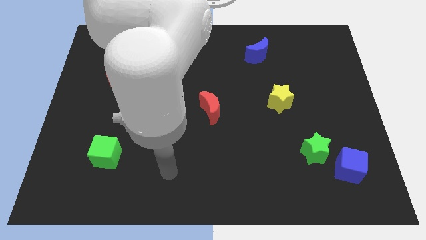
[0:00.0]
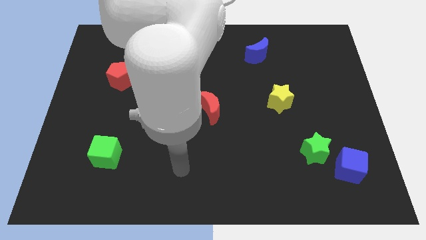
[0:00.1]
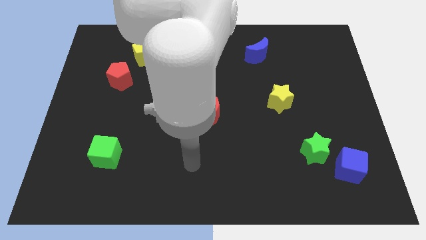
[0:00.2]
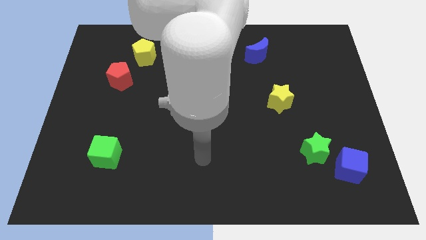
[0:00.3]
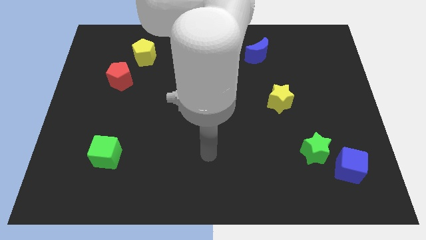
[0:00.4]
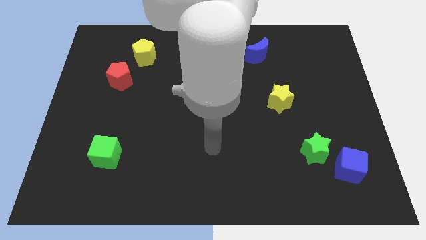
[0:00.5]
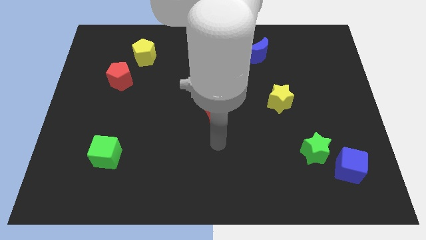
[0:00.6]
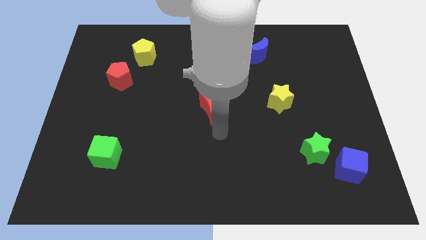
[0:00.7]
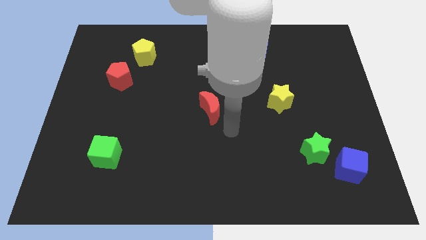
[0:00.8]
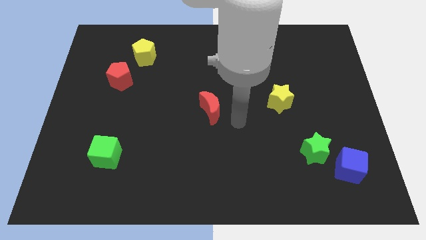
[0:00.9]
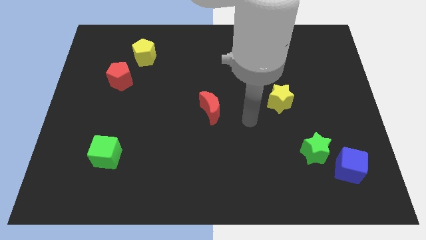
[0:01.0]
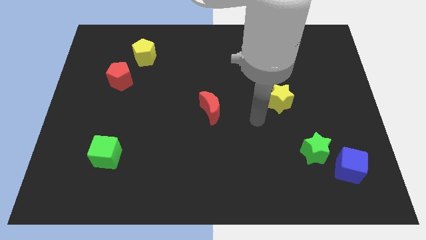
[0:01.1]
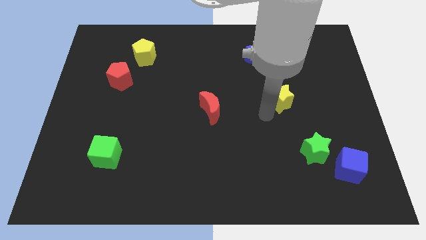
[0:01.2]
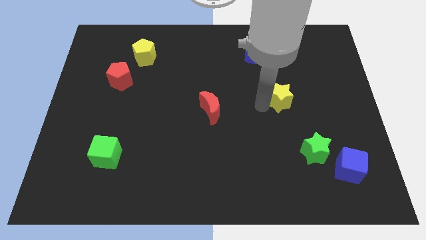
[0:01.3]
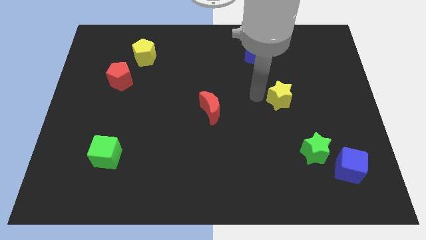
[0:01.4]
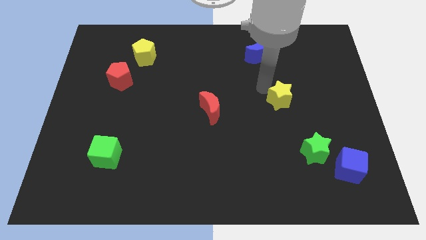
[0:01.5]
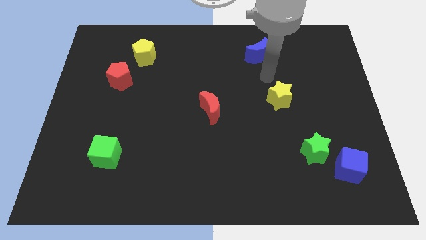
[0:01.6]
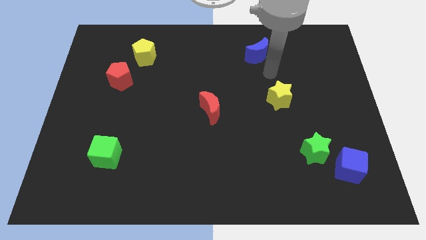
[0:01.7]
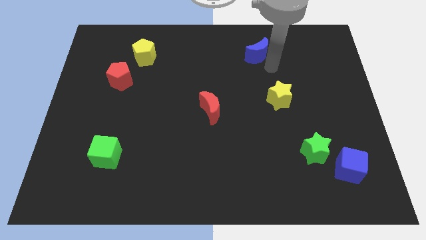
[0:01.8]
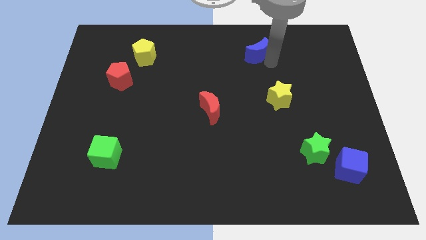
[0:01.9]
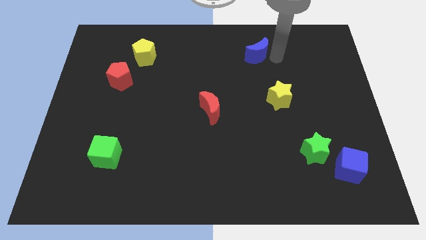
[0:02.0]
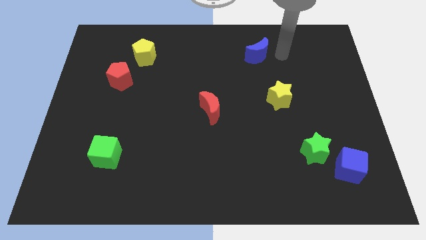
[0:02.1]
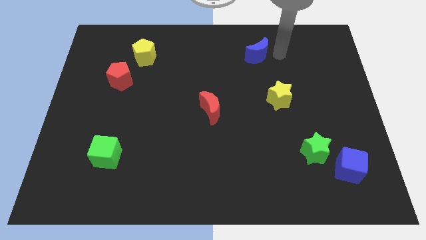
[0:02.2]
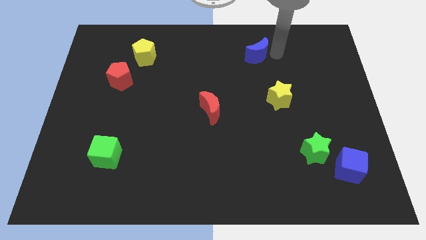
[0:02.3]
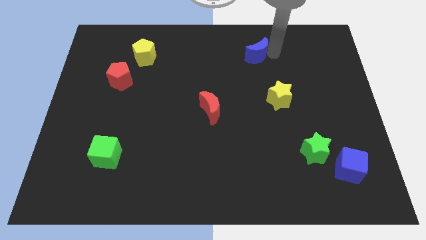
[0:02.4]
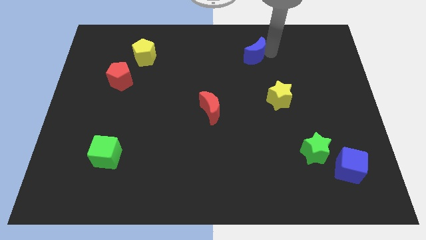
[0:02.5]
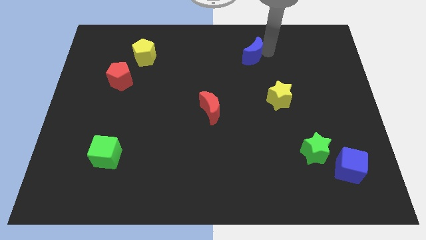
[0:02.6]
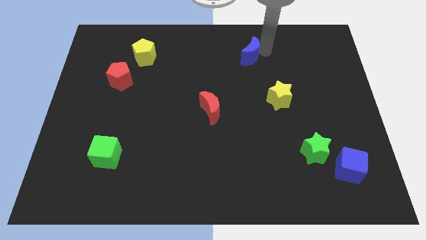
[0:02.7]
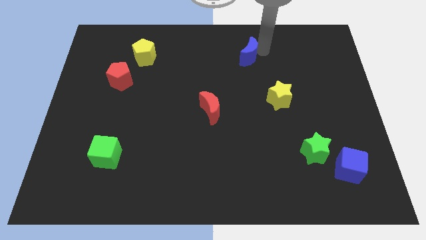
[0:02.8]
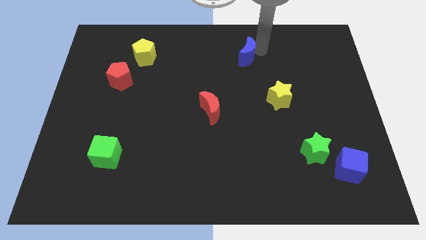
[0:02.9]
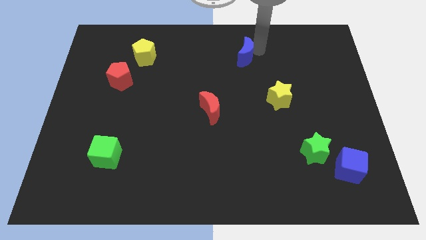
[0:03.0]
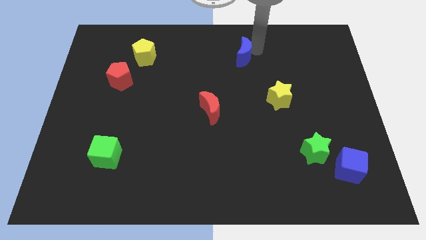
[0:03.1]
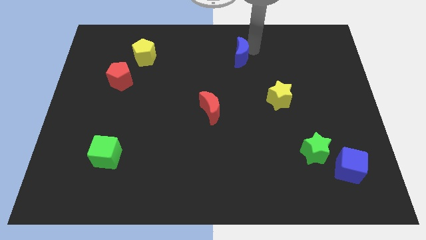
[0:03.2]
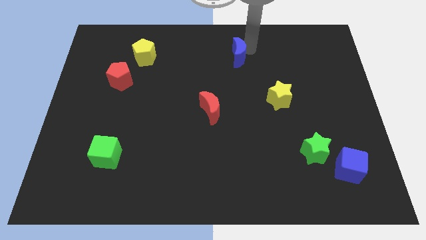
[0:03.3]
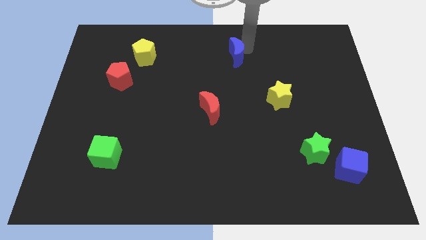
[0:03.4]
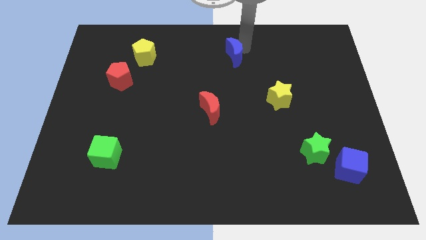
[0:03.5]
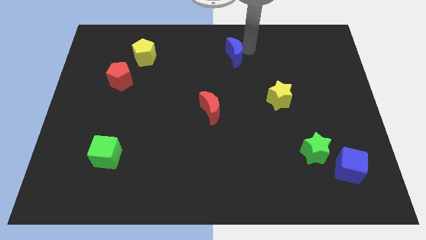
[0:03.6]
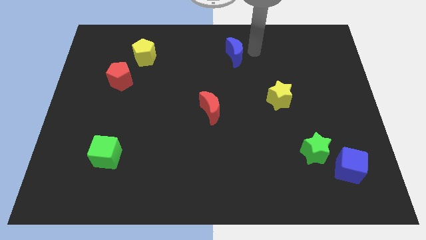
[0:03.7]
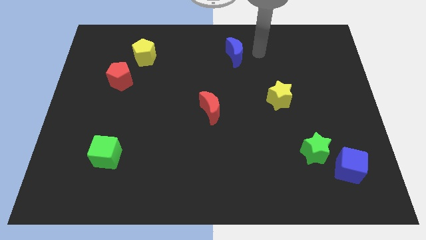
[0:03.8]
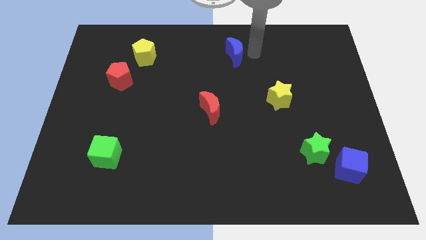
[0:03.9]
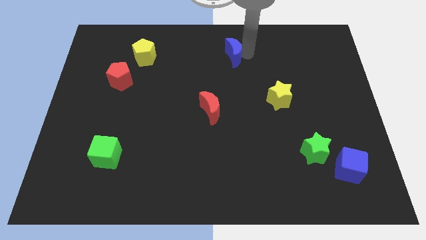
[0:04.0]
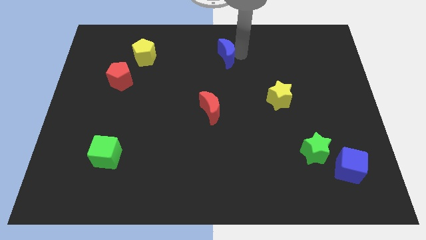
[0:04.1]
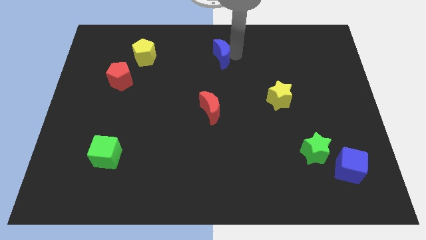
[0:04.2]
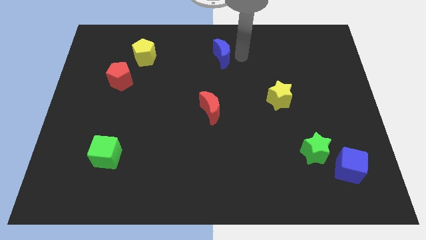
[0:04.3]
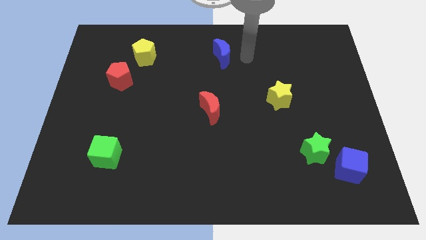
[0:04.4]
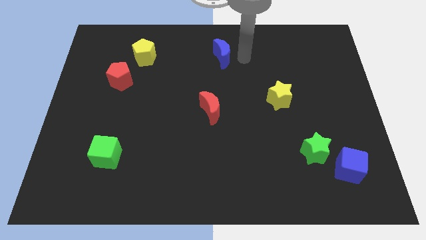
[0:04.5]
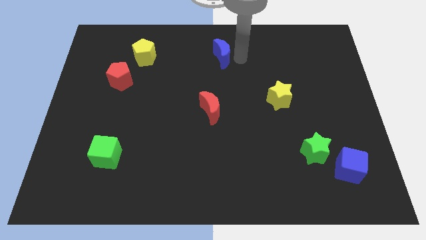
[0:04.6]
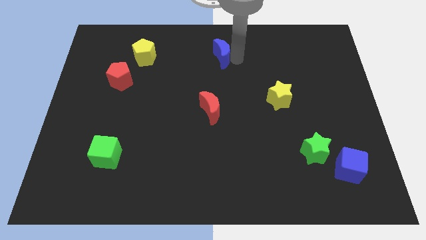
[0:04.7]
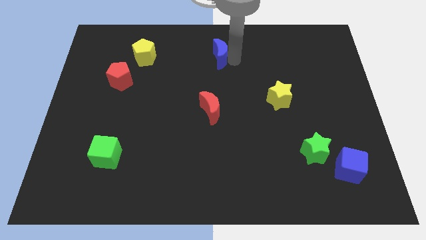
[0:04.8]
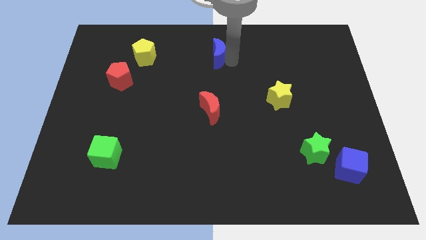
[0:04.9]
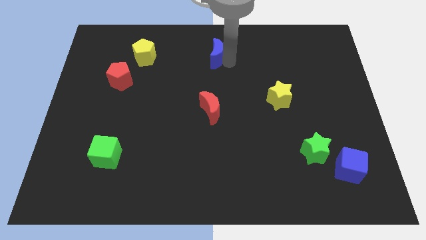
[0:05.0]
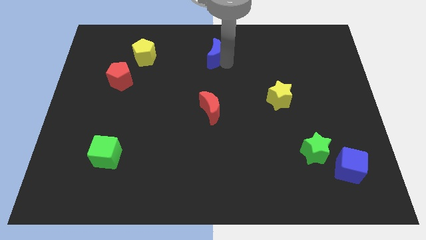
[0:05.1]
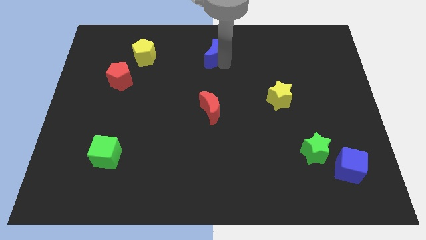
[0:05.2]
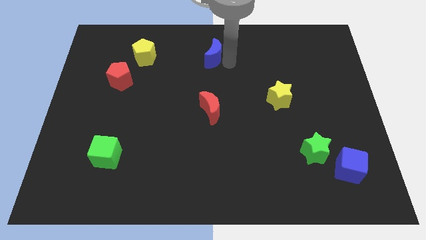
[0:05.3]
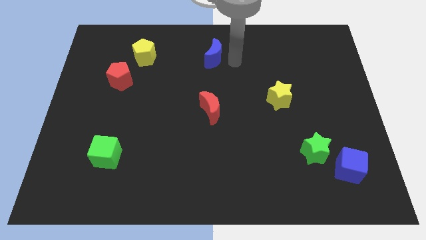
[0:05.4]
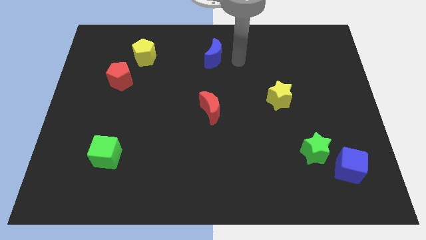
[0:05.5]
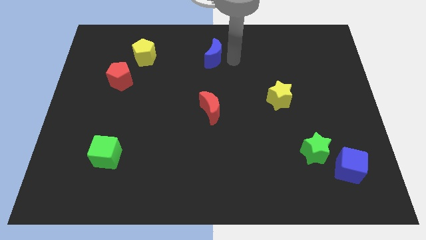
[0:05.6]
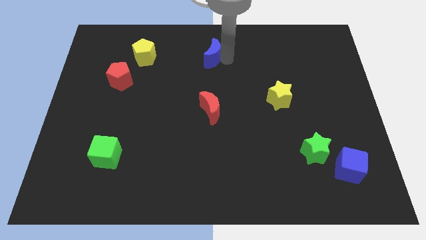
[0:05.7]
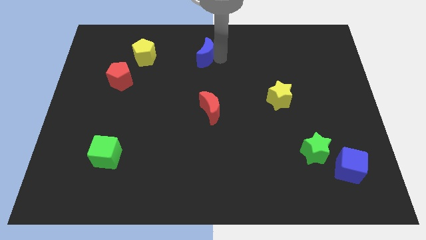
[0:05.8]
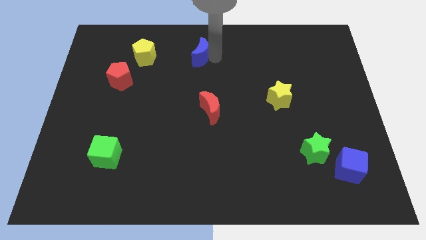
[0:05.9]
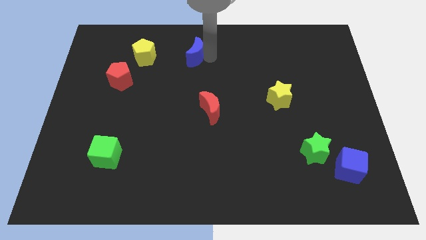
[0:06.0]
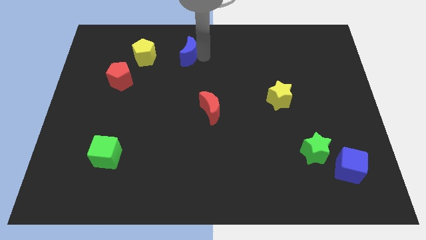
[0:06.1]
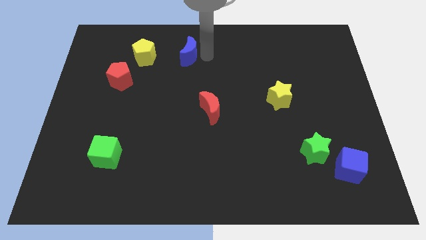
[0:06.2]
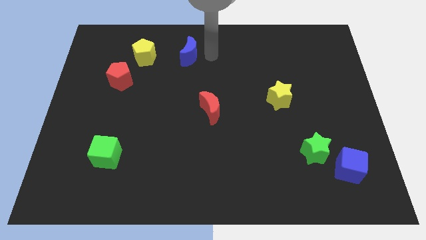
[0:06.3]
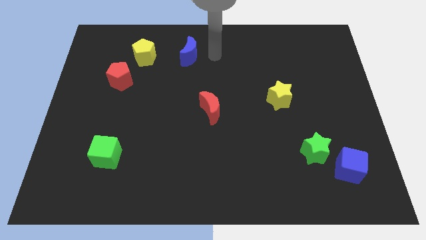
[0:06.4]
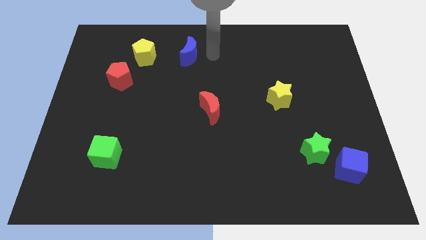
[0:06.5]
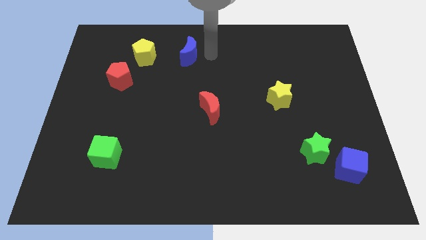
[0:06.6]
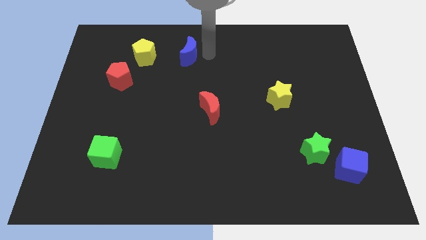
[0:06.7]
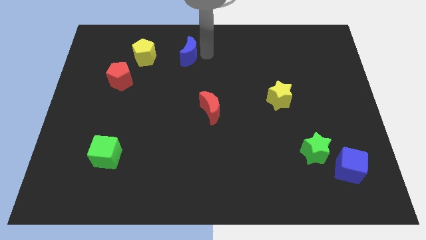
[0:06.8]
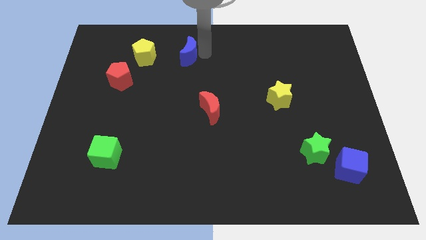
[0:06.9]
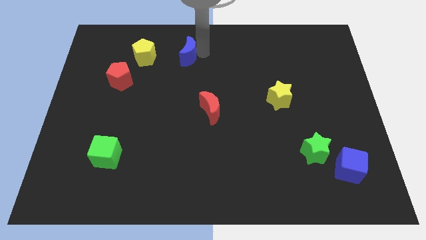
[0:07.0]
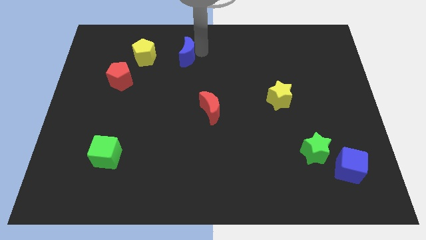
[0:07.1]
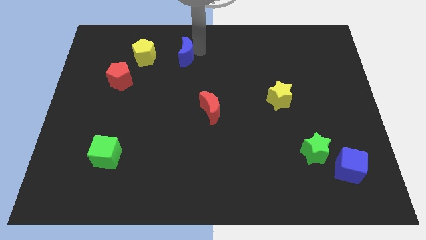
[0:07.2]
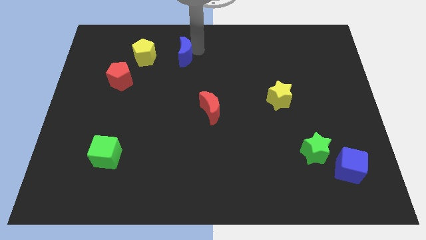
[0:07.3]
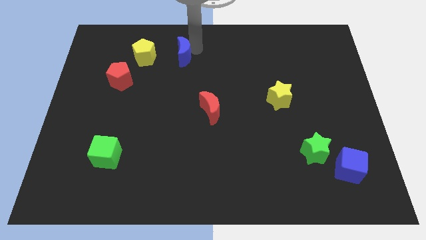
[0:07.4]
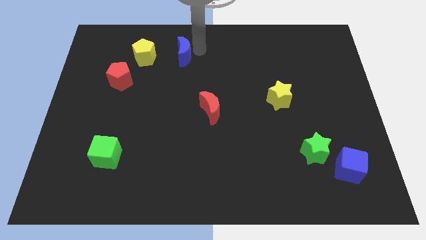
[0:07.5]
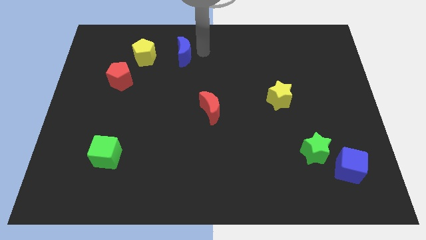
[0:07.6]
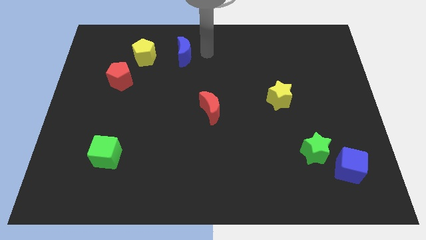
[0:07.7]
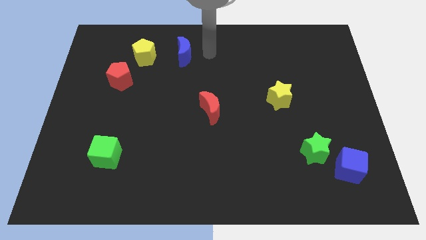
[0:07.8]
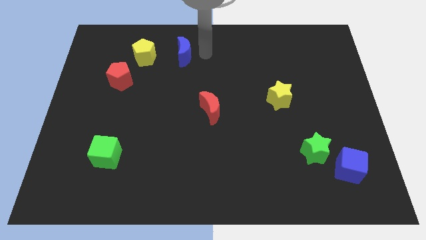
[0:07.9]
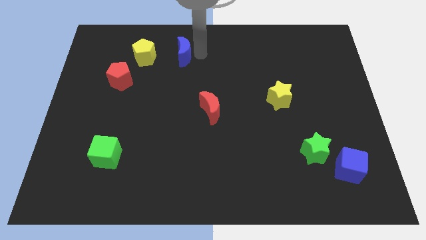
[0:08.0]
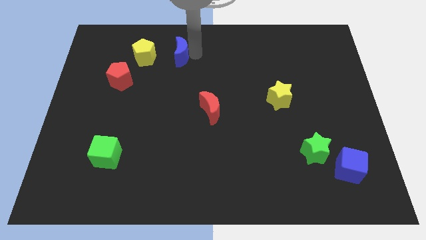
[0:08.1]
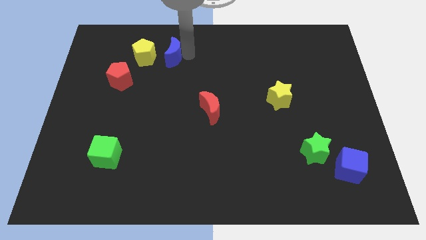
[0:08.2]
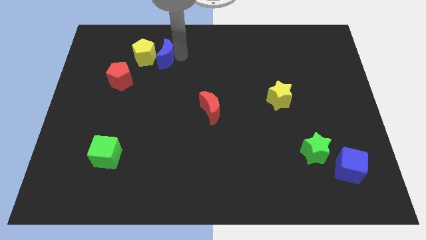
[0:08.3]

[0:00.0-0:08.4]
slide the blue moon close to the yellow pentagon
